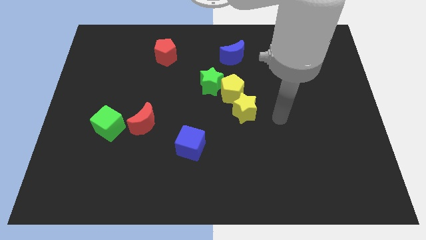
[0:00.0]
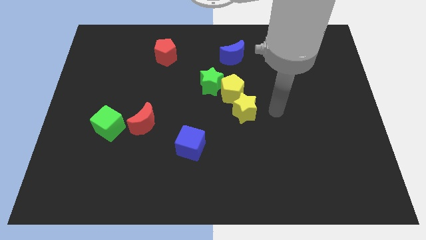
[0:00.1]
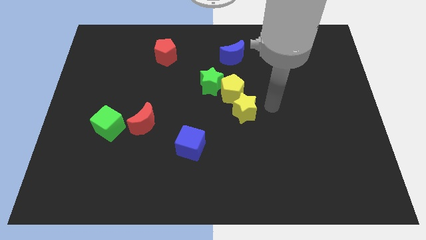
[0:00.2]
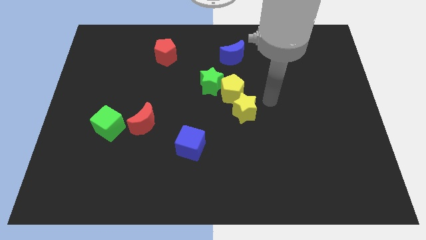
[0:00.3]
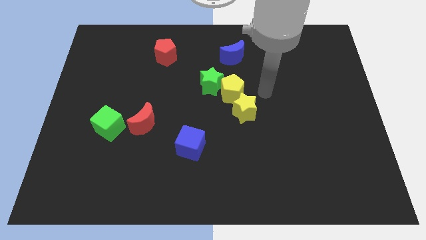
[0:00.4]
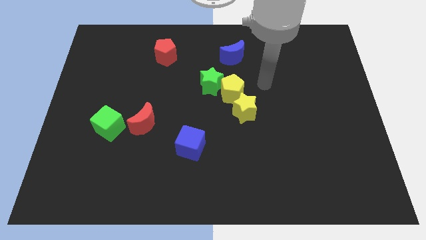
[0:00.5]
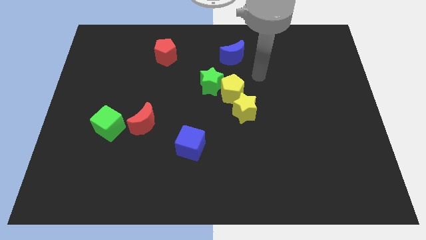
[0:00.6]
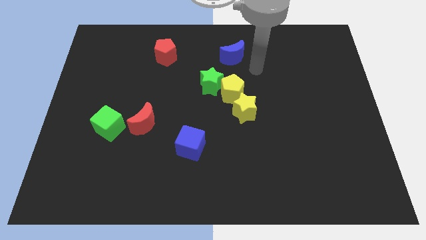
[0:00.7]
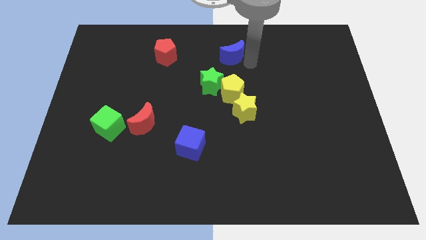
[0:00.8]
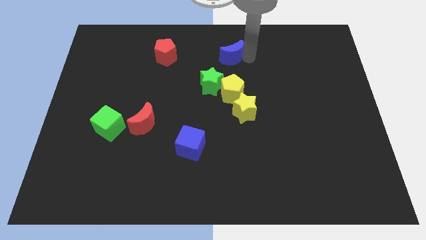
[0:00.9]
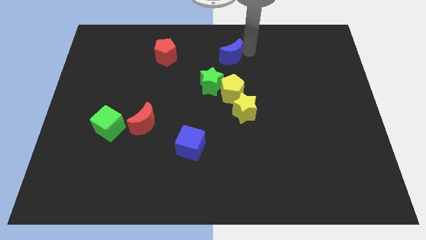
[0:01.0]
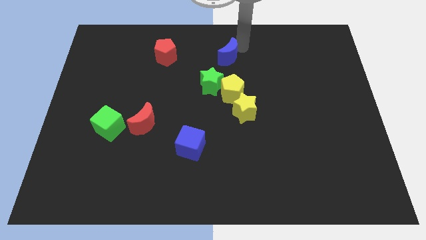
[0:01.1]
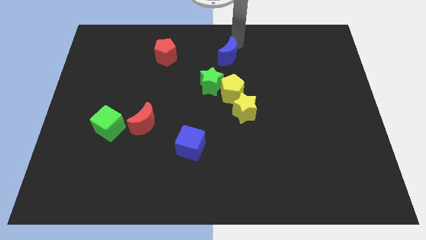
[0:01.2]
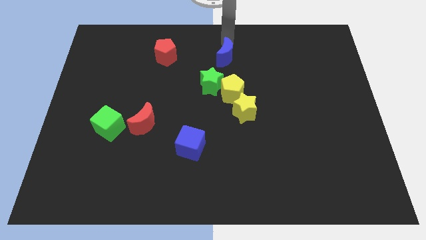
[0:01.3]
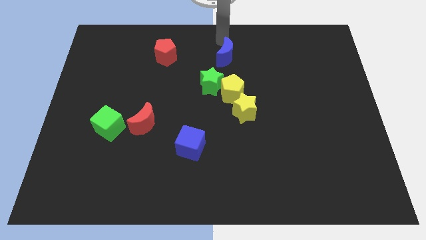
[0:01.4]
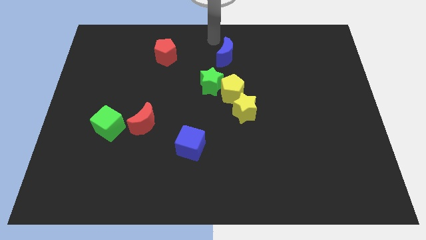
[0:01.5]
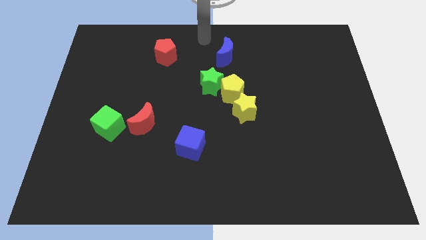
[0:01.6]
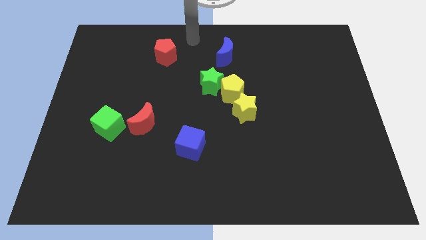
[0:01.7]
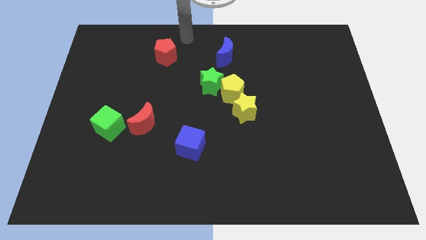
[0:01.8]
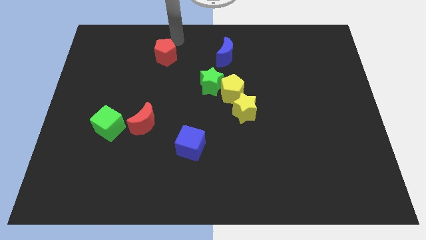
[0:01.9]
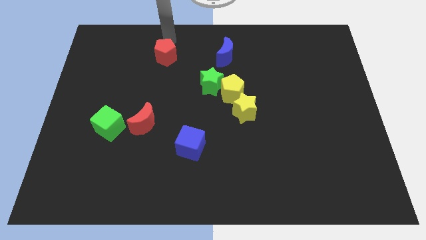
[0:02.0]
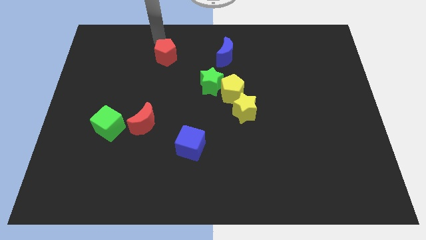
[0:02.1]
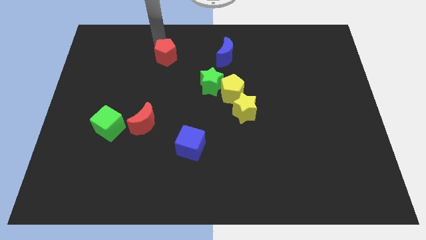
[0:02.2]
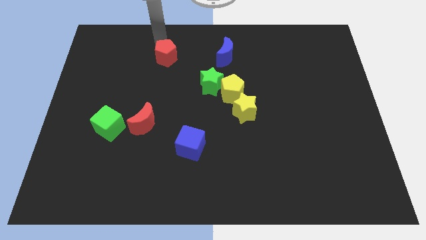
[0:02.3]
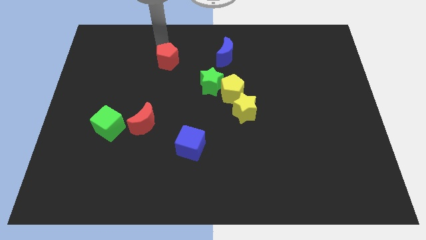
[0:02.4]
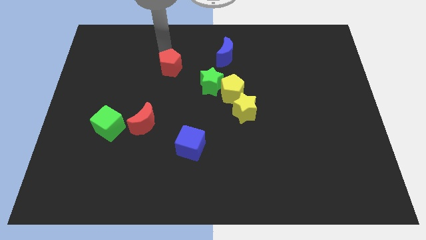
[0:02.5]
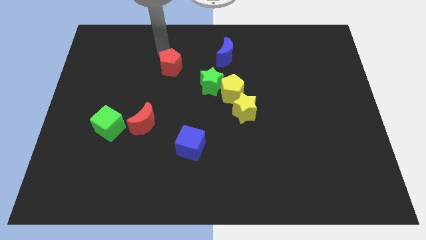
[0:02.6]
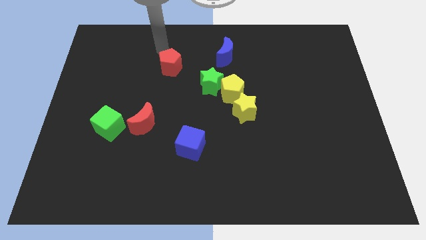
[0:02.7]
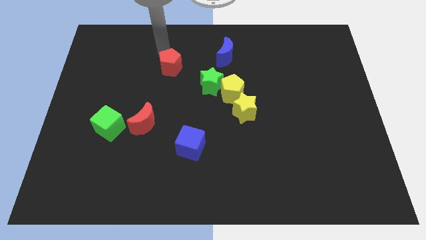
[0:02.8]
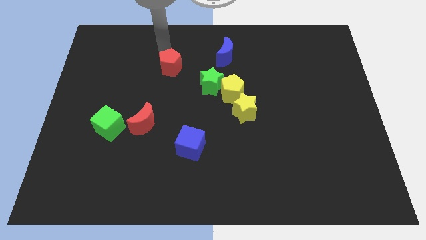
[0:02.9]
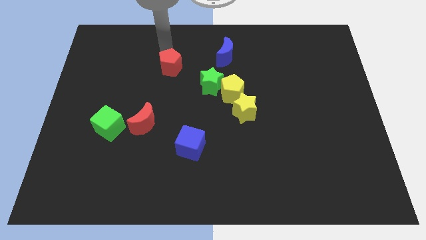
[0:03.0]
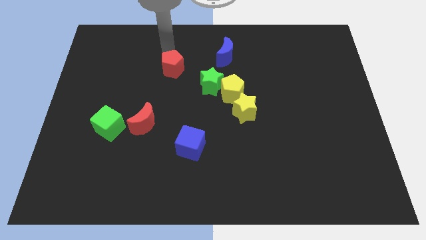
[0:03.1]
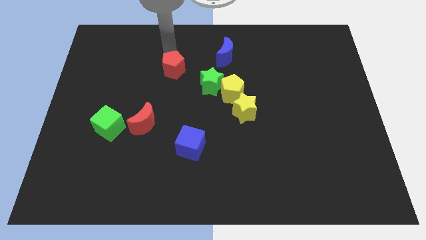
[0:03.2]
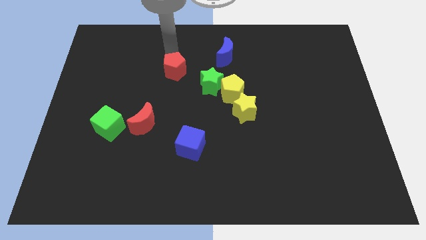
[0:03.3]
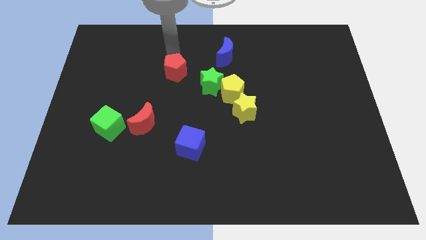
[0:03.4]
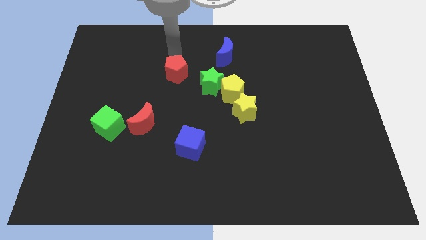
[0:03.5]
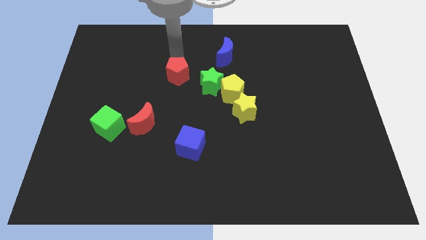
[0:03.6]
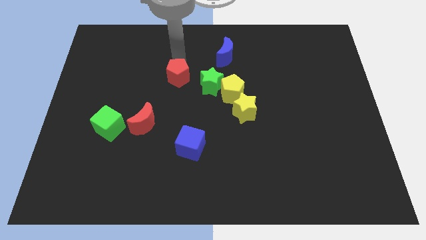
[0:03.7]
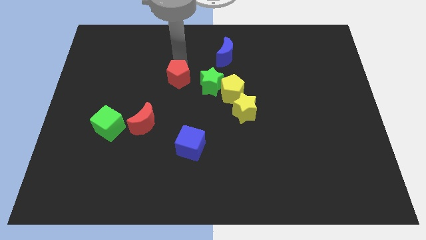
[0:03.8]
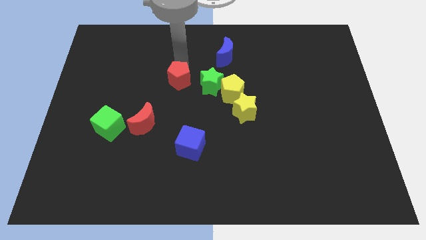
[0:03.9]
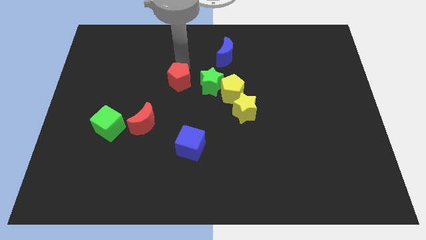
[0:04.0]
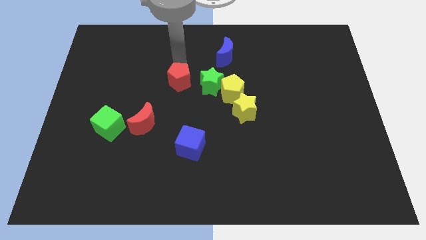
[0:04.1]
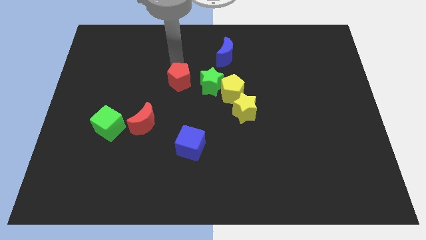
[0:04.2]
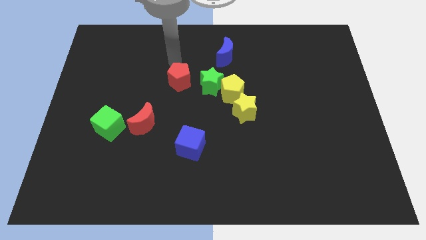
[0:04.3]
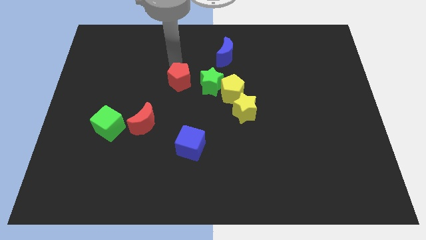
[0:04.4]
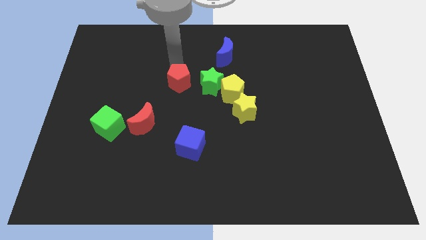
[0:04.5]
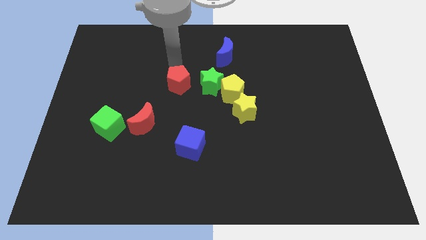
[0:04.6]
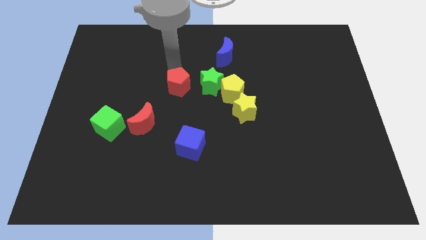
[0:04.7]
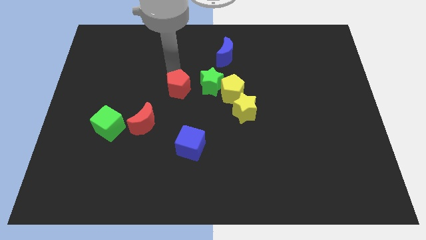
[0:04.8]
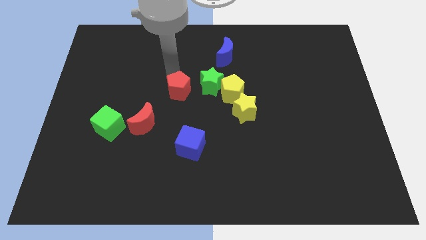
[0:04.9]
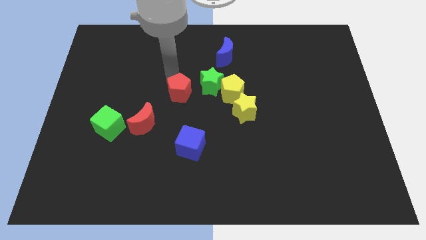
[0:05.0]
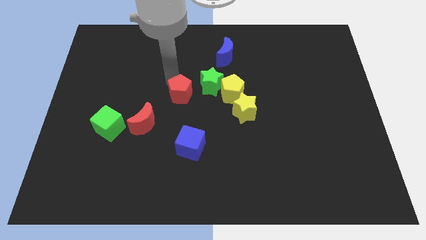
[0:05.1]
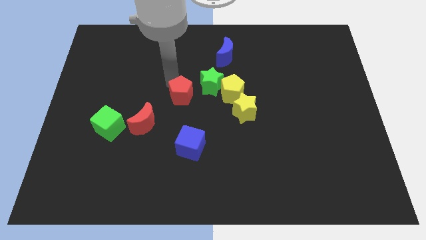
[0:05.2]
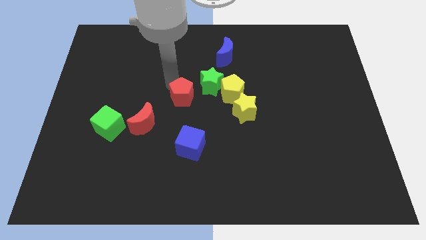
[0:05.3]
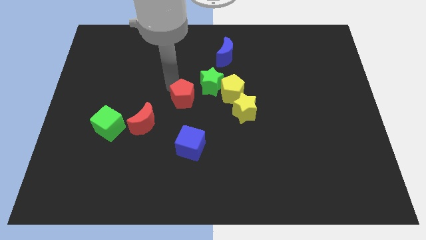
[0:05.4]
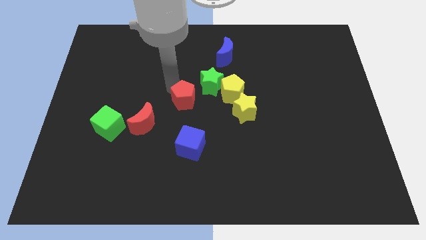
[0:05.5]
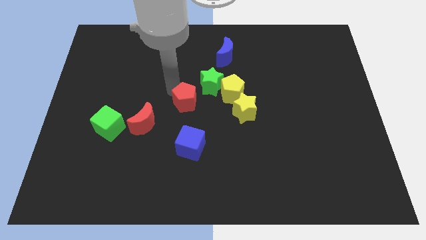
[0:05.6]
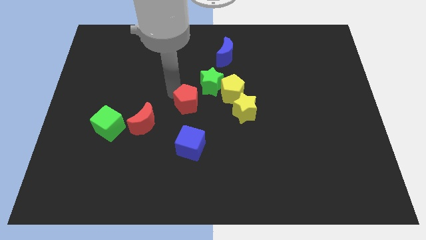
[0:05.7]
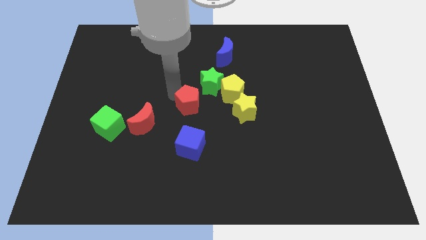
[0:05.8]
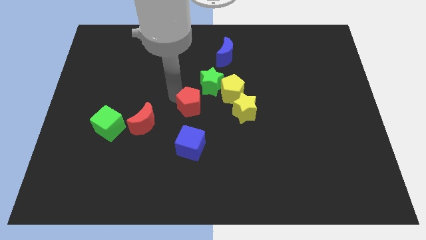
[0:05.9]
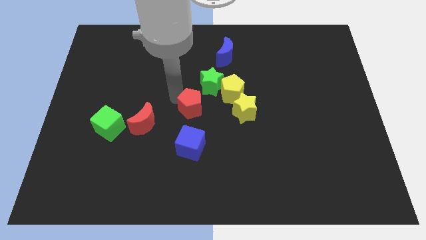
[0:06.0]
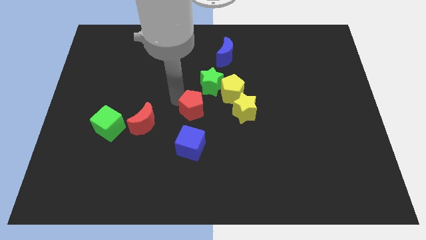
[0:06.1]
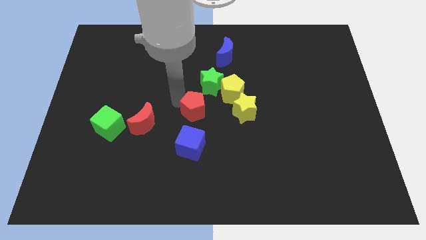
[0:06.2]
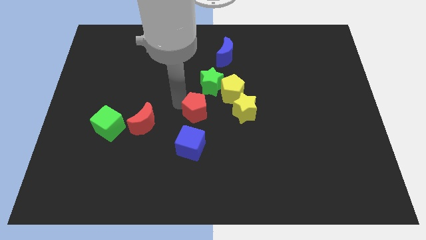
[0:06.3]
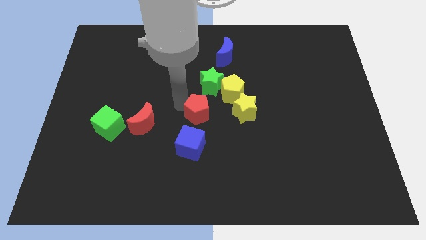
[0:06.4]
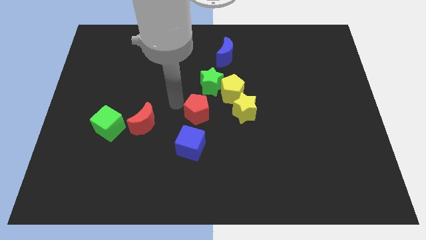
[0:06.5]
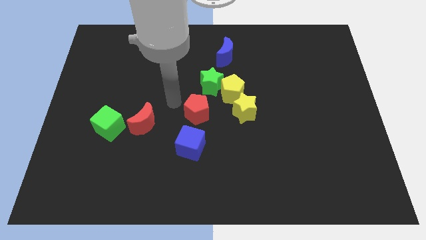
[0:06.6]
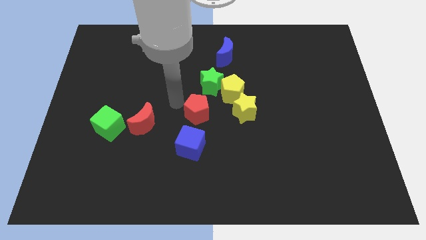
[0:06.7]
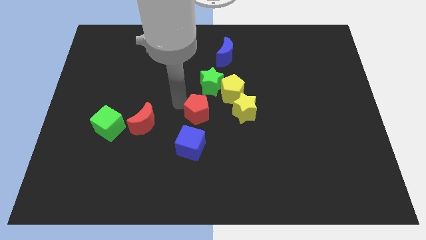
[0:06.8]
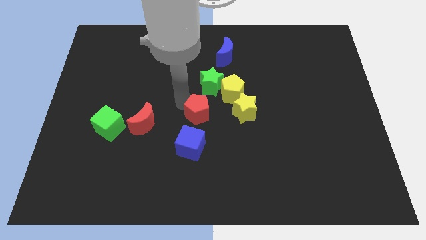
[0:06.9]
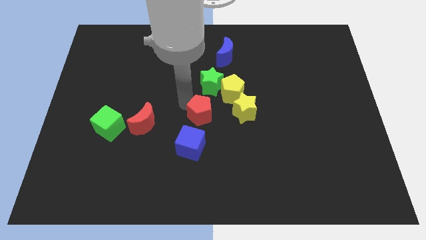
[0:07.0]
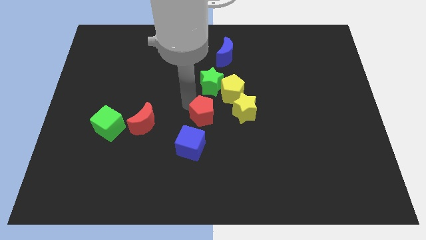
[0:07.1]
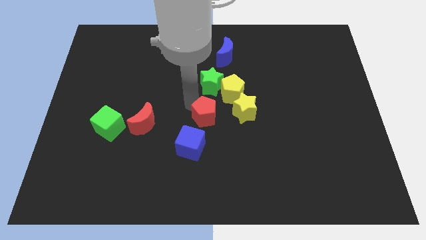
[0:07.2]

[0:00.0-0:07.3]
slide the red pentagon diagonally down and right
